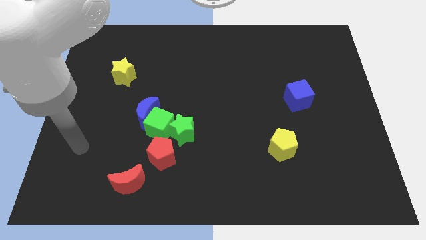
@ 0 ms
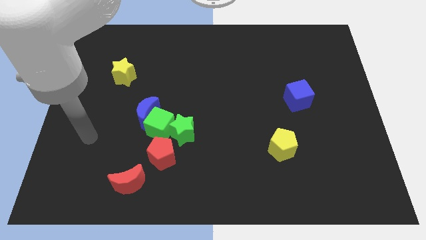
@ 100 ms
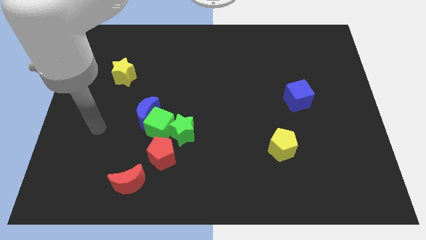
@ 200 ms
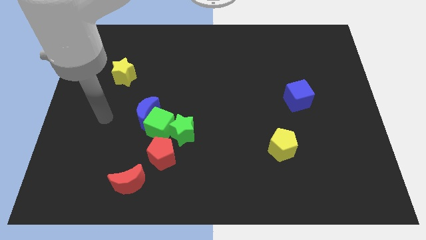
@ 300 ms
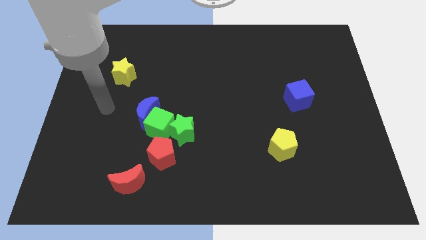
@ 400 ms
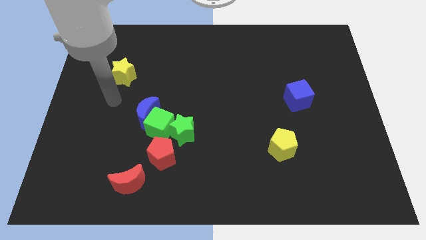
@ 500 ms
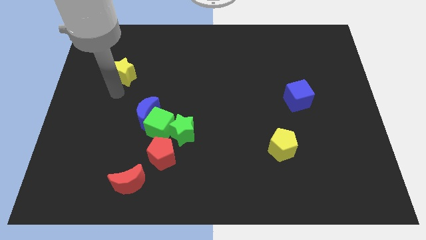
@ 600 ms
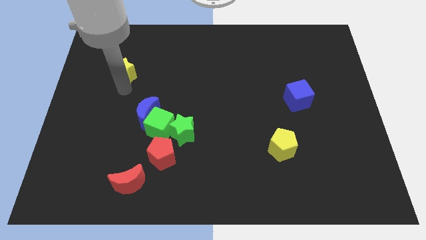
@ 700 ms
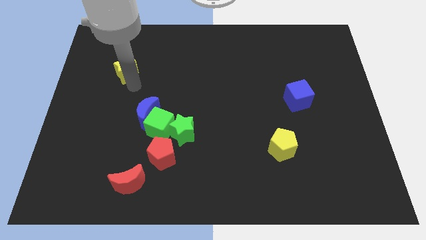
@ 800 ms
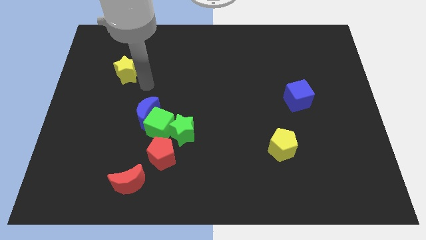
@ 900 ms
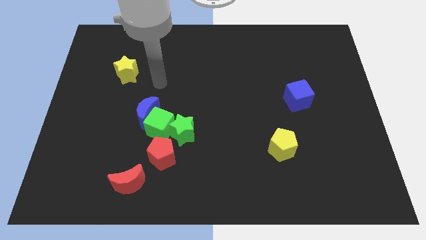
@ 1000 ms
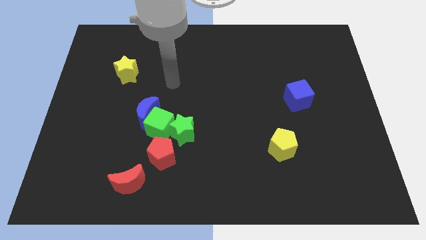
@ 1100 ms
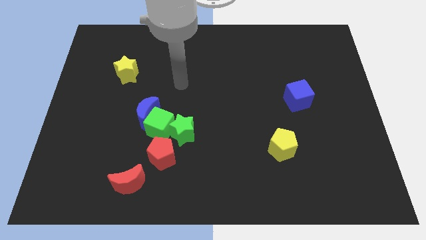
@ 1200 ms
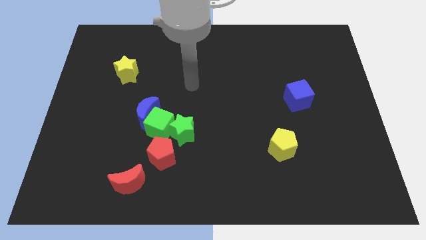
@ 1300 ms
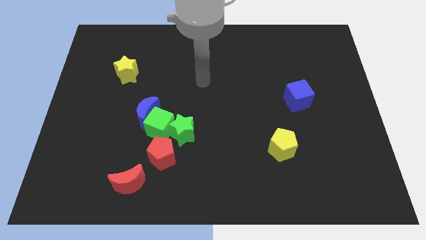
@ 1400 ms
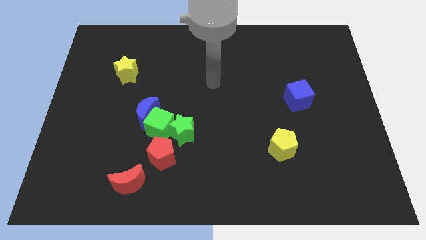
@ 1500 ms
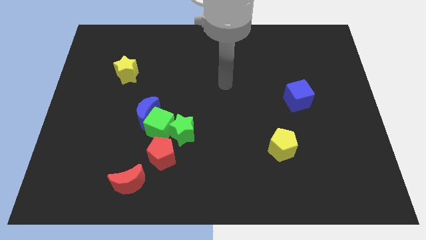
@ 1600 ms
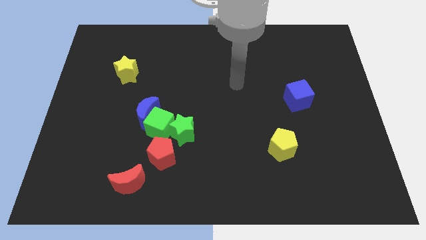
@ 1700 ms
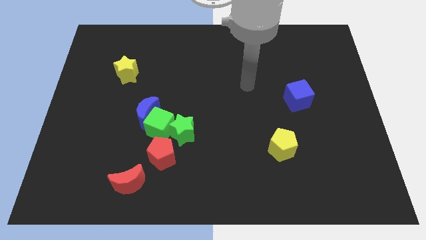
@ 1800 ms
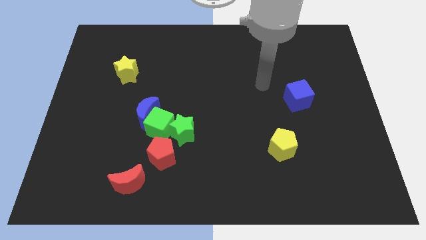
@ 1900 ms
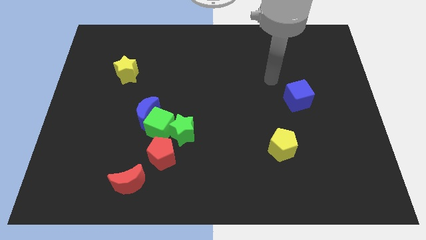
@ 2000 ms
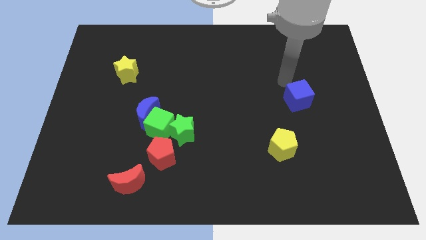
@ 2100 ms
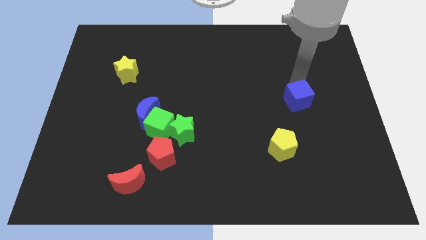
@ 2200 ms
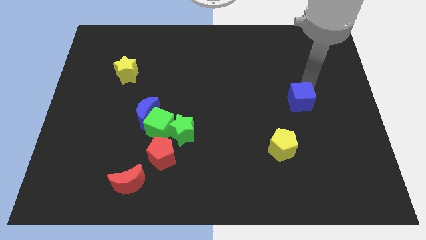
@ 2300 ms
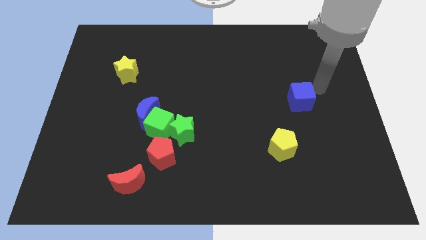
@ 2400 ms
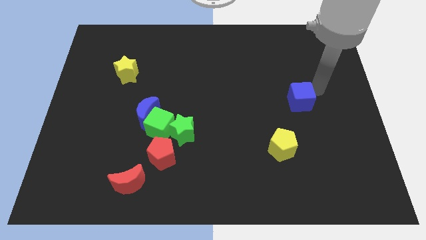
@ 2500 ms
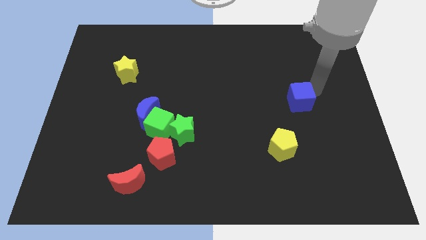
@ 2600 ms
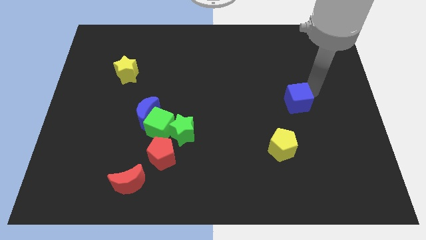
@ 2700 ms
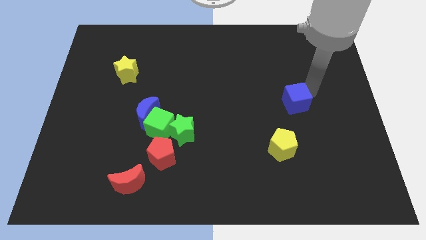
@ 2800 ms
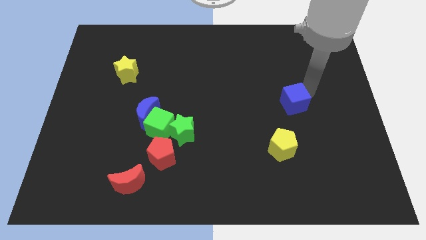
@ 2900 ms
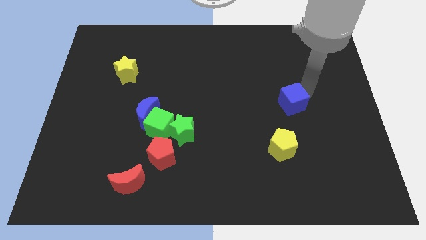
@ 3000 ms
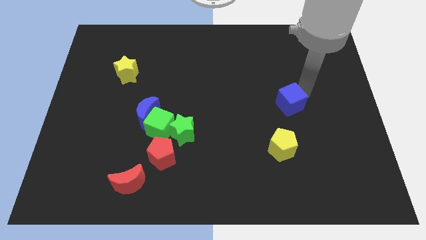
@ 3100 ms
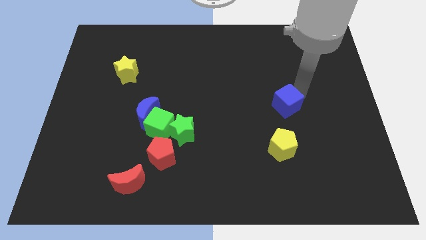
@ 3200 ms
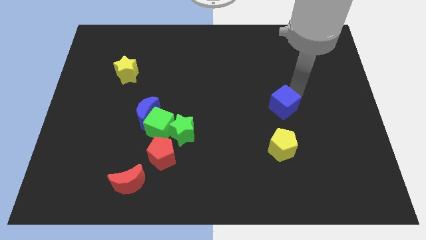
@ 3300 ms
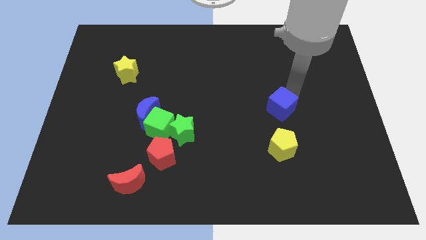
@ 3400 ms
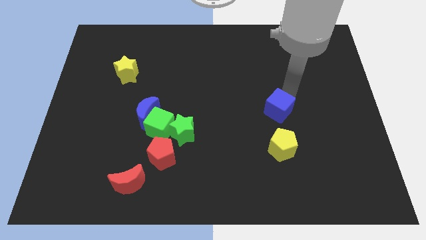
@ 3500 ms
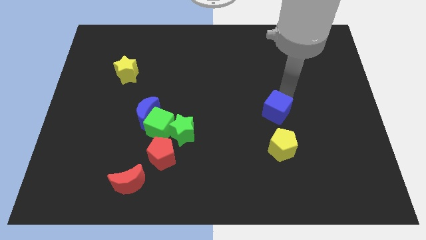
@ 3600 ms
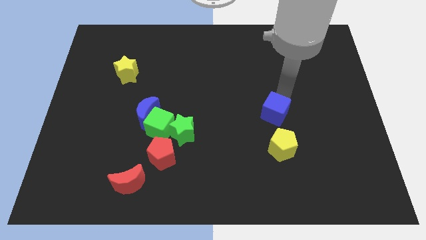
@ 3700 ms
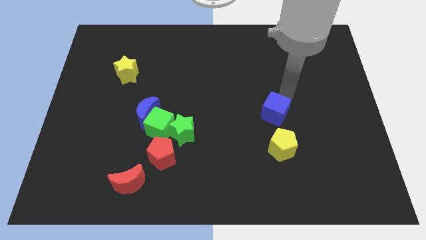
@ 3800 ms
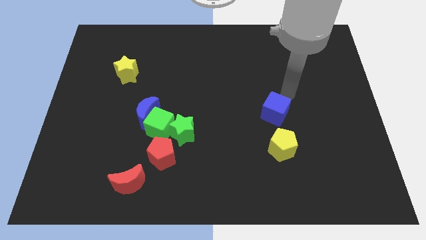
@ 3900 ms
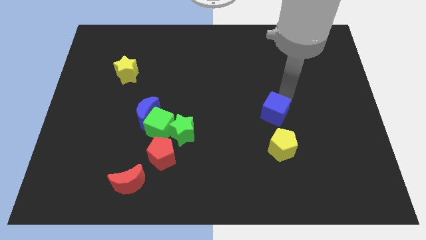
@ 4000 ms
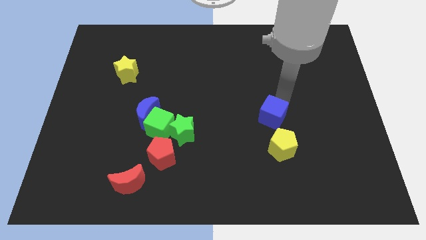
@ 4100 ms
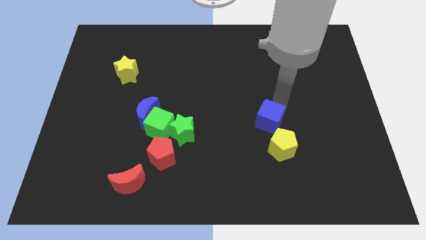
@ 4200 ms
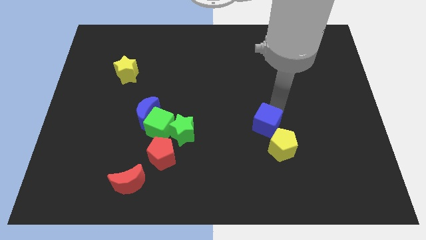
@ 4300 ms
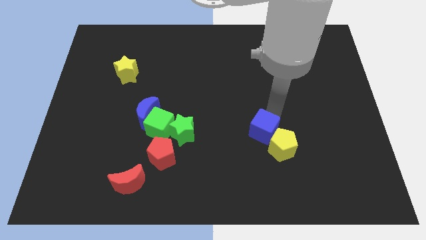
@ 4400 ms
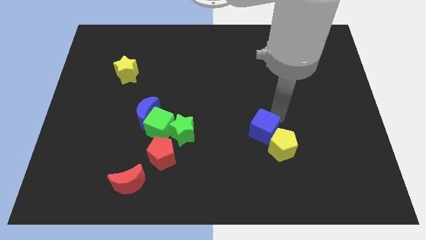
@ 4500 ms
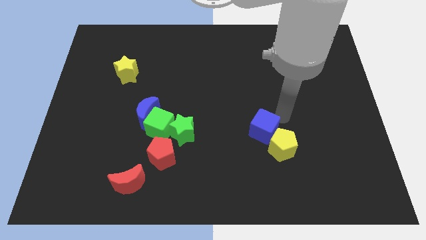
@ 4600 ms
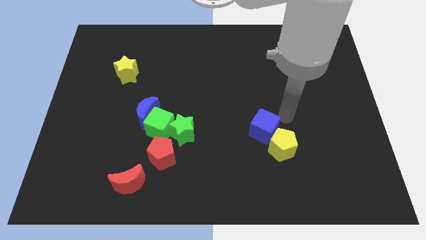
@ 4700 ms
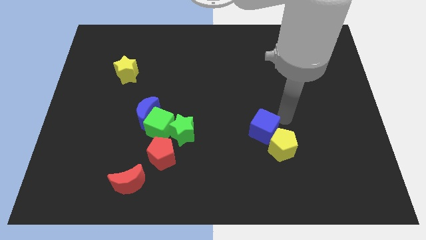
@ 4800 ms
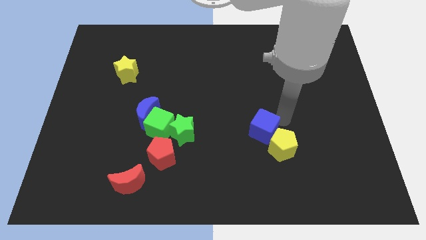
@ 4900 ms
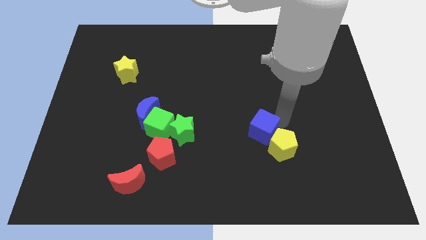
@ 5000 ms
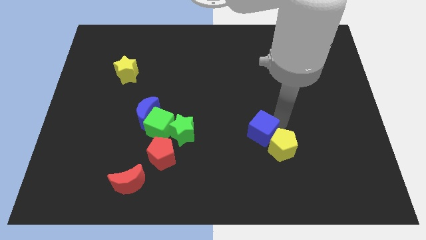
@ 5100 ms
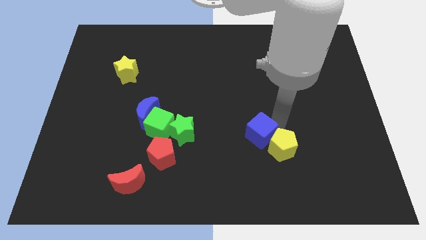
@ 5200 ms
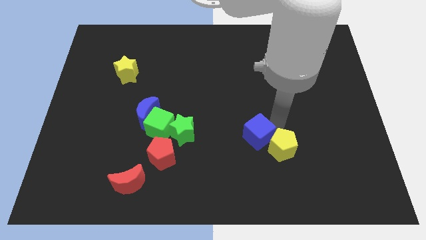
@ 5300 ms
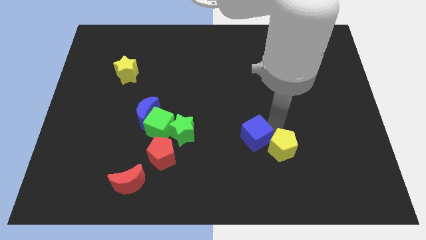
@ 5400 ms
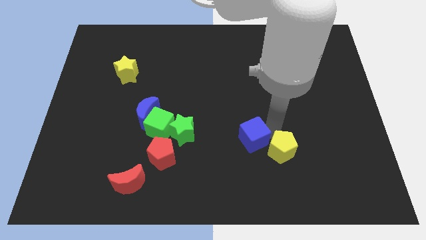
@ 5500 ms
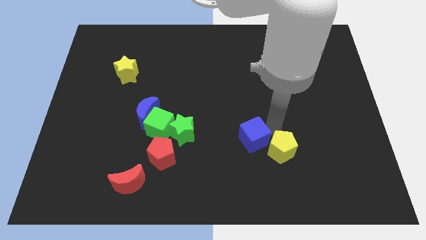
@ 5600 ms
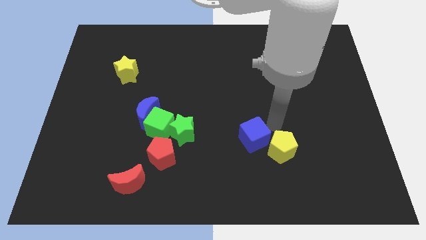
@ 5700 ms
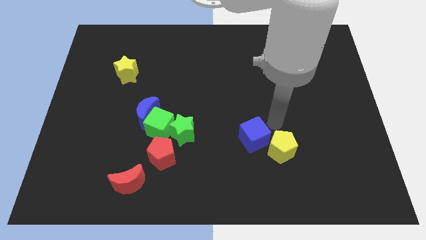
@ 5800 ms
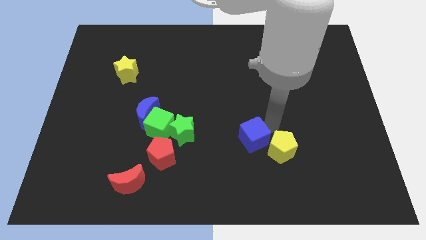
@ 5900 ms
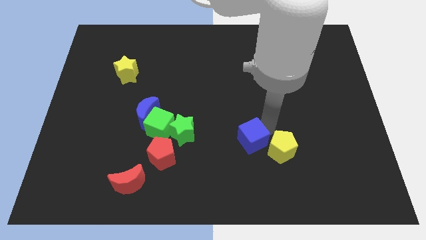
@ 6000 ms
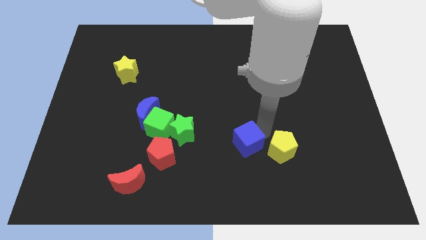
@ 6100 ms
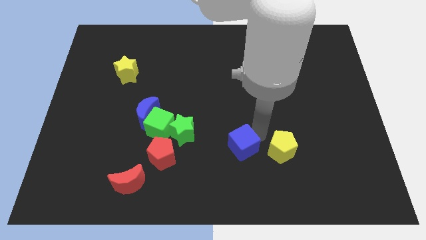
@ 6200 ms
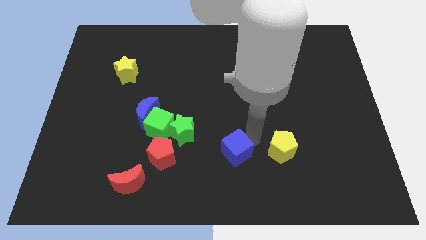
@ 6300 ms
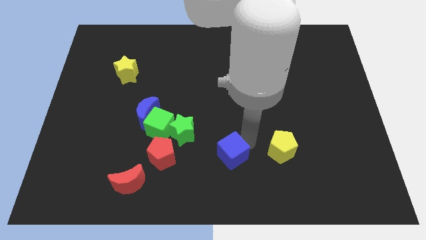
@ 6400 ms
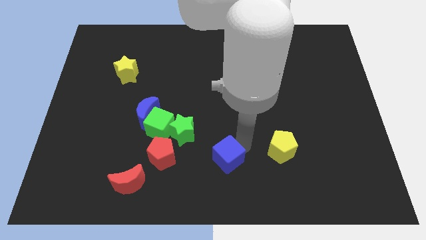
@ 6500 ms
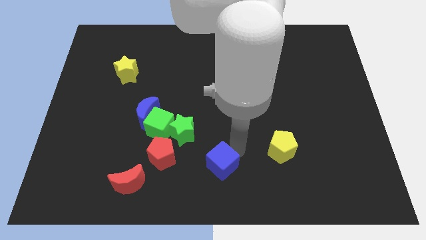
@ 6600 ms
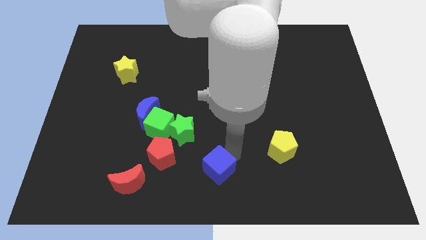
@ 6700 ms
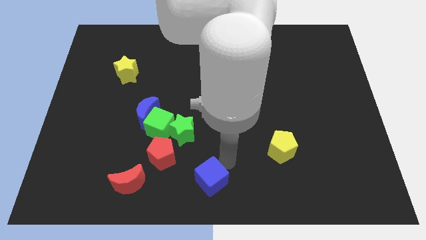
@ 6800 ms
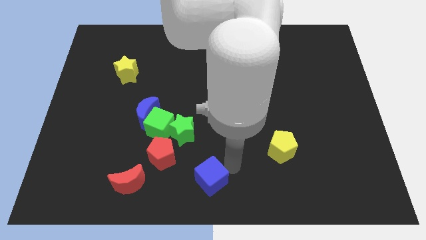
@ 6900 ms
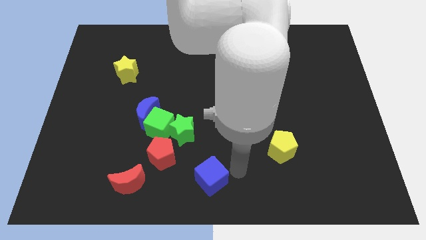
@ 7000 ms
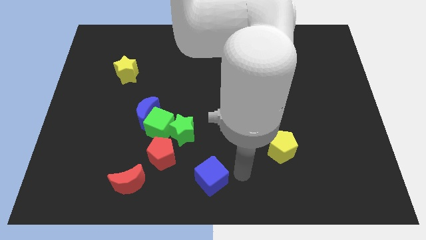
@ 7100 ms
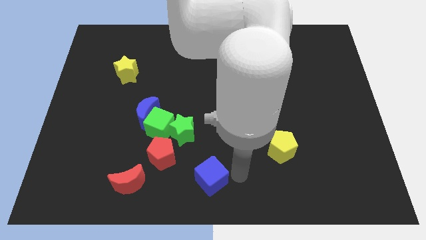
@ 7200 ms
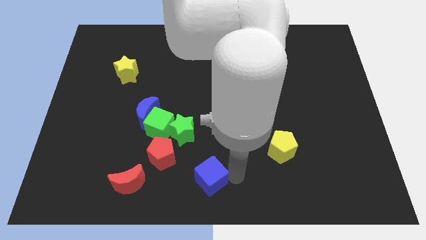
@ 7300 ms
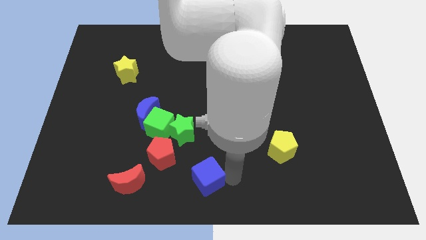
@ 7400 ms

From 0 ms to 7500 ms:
move the blue cube right of the red moon

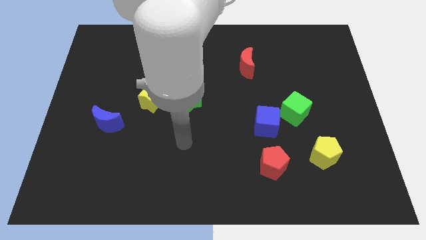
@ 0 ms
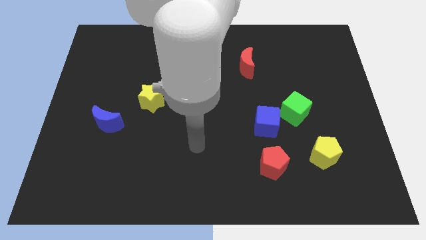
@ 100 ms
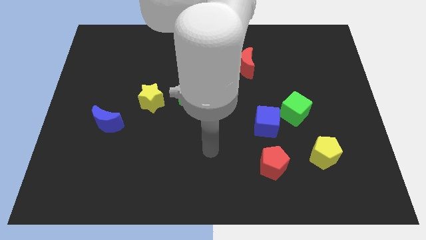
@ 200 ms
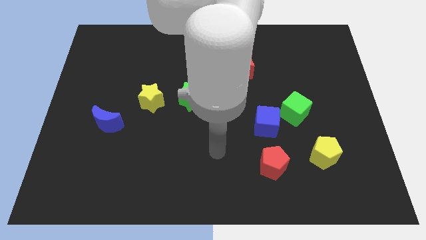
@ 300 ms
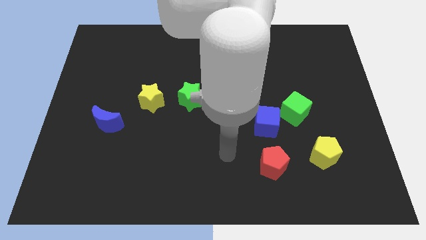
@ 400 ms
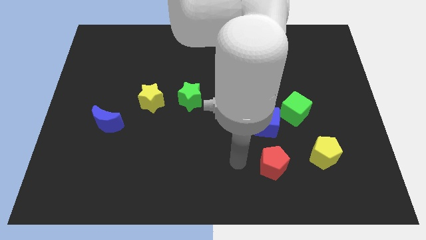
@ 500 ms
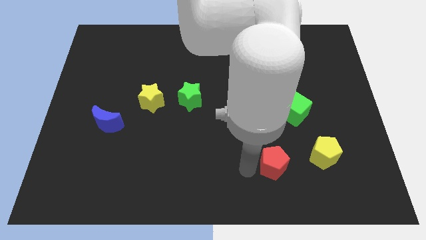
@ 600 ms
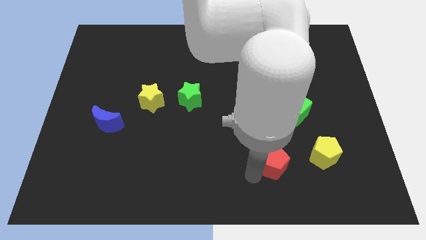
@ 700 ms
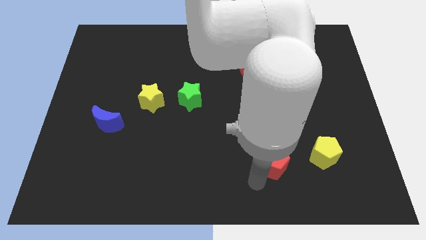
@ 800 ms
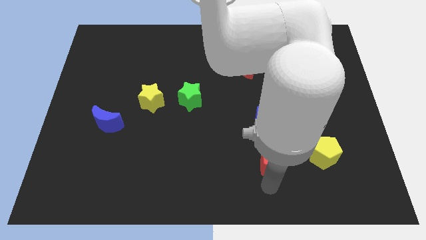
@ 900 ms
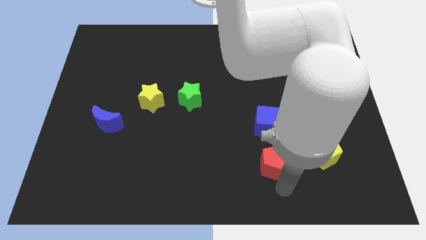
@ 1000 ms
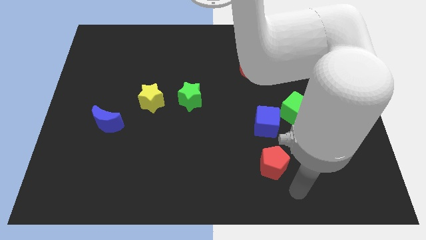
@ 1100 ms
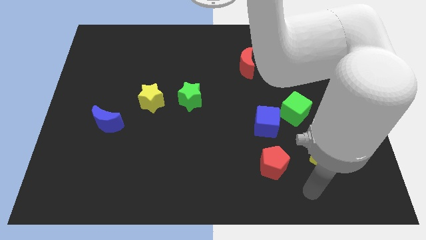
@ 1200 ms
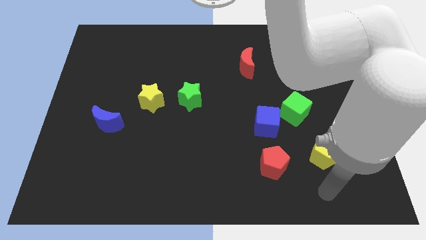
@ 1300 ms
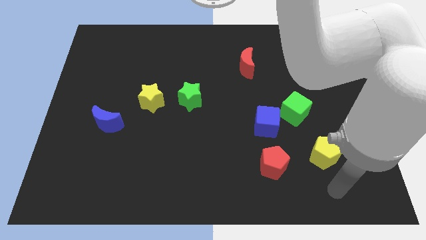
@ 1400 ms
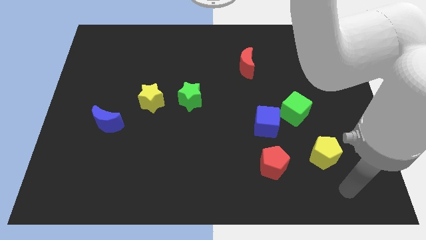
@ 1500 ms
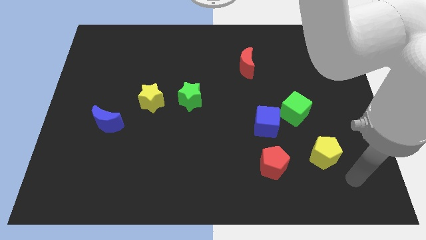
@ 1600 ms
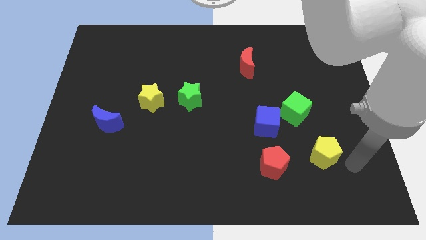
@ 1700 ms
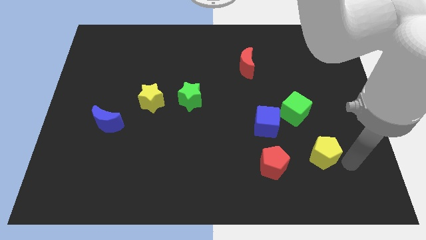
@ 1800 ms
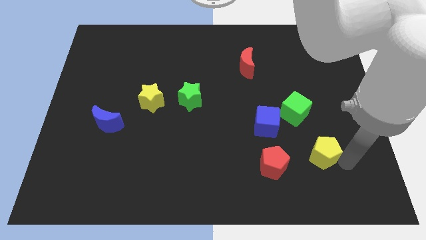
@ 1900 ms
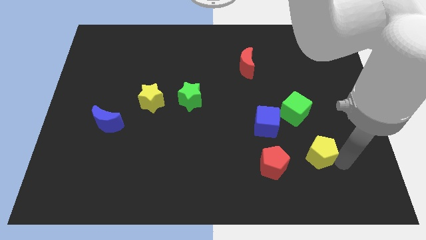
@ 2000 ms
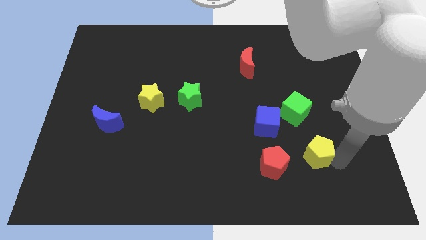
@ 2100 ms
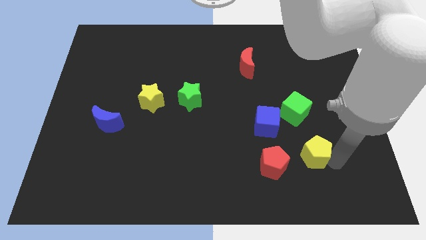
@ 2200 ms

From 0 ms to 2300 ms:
put the yellow pentagon to the top right side of the red pentagon
